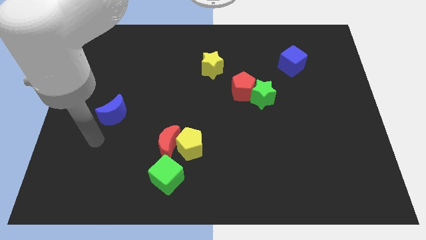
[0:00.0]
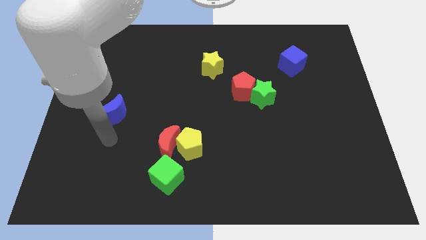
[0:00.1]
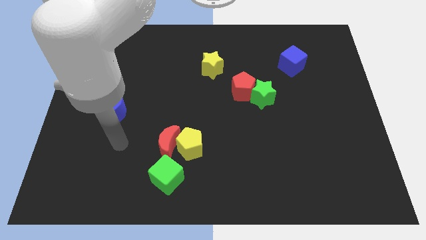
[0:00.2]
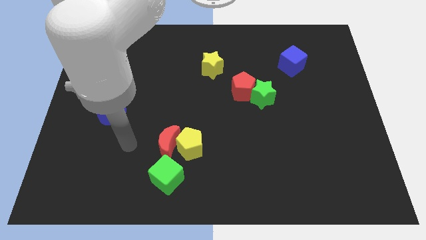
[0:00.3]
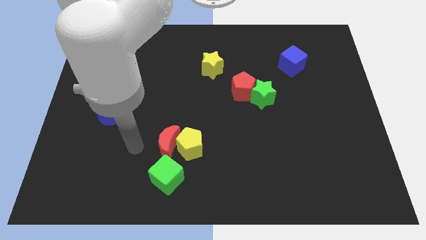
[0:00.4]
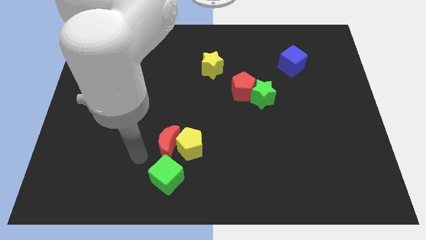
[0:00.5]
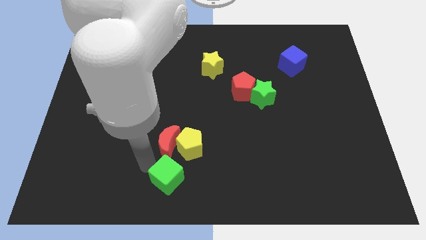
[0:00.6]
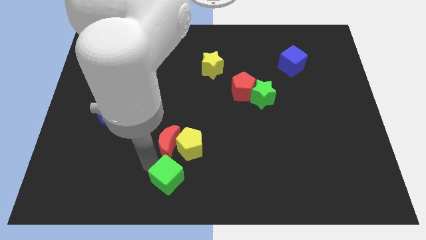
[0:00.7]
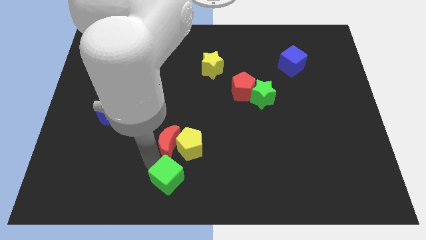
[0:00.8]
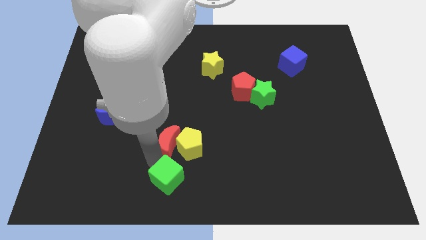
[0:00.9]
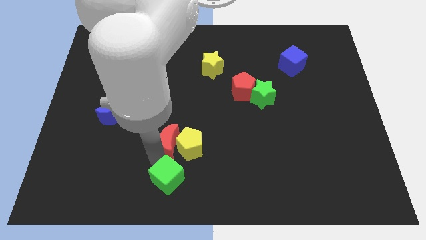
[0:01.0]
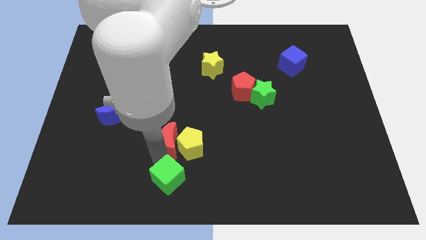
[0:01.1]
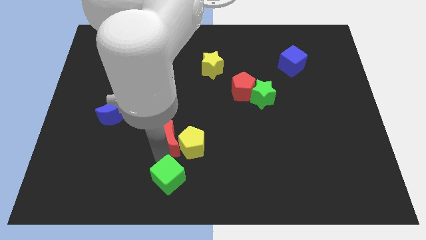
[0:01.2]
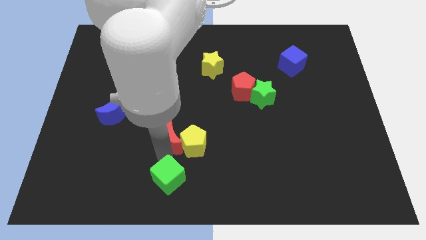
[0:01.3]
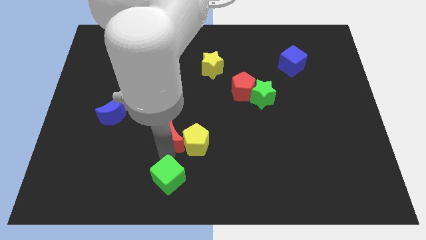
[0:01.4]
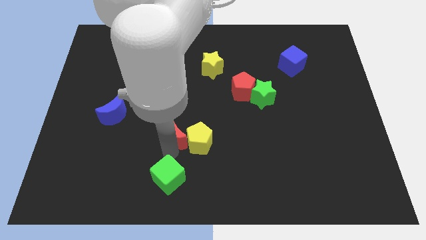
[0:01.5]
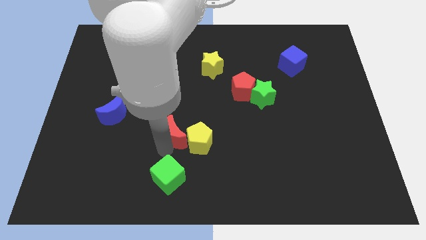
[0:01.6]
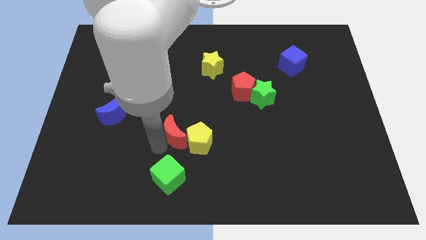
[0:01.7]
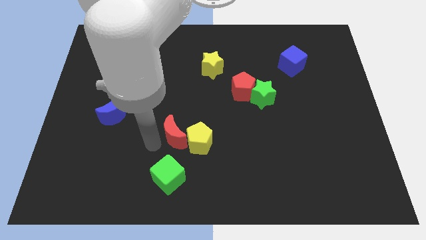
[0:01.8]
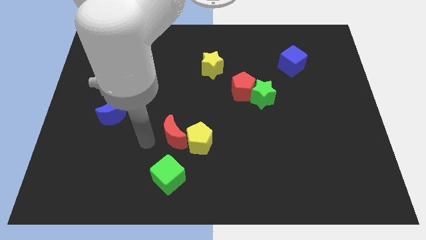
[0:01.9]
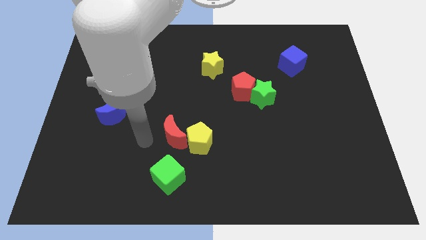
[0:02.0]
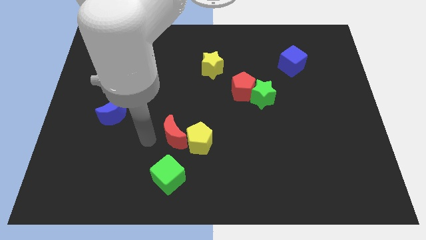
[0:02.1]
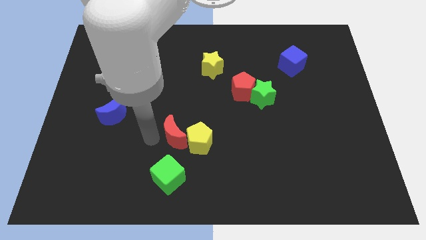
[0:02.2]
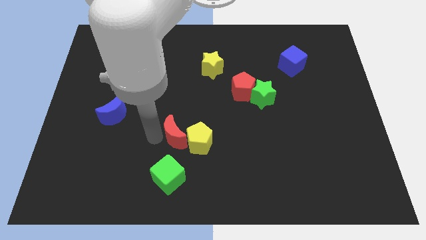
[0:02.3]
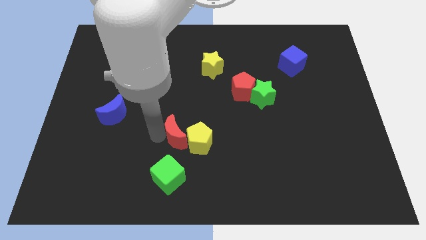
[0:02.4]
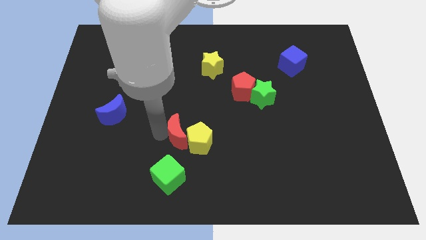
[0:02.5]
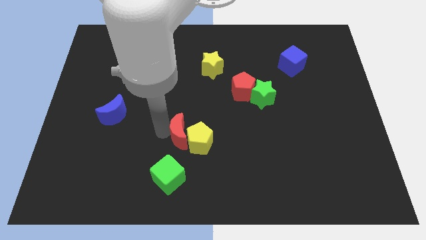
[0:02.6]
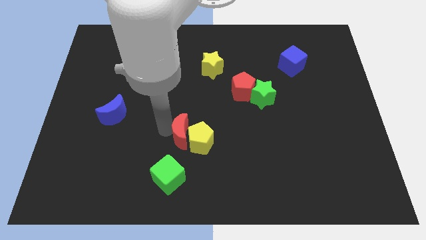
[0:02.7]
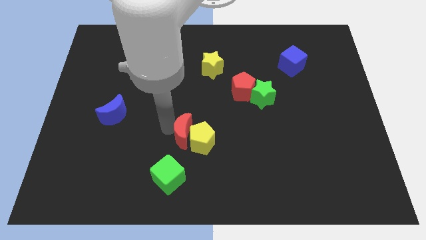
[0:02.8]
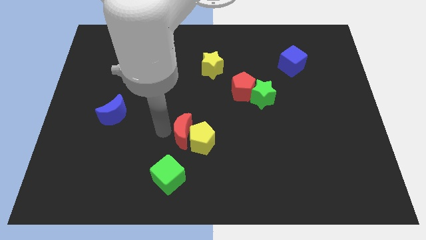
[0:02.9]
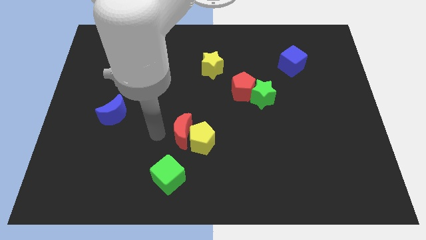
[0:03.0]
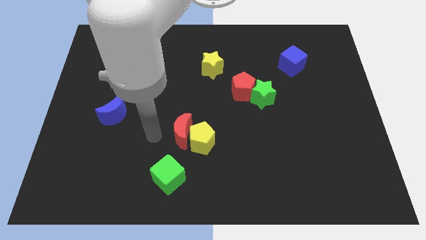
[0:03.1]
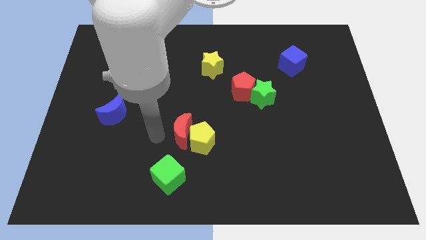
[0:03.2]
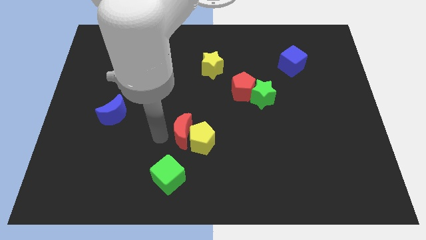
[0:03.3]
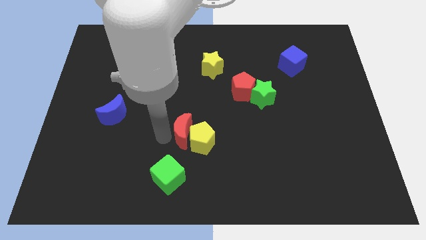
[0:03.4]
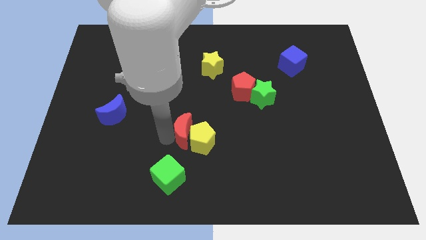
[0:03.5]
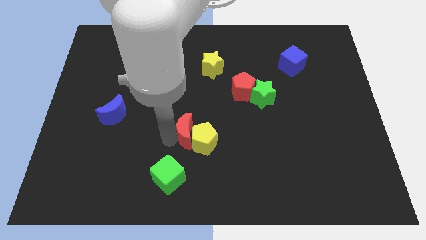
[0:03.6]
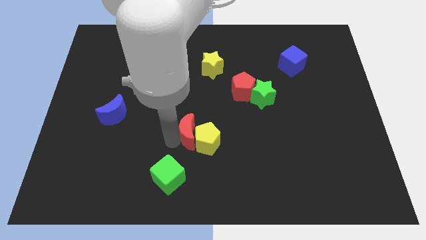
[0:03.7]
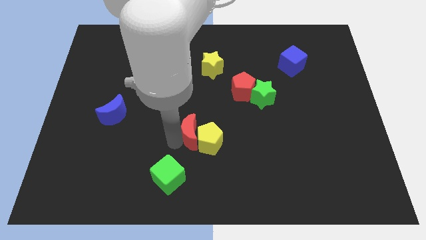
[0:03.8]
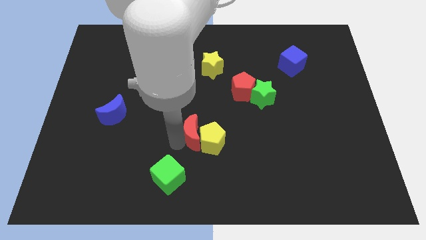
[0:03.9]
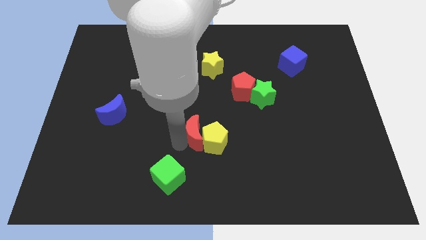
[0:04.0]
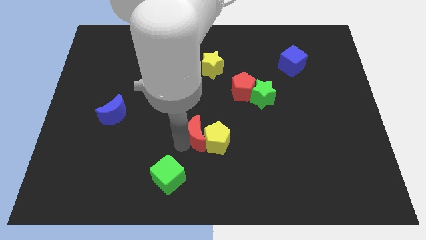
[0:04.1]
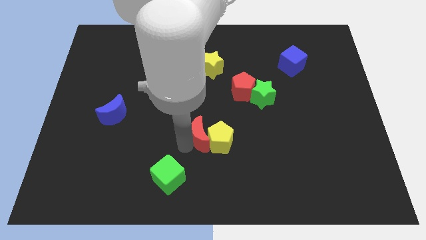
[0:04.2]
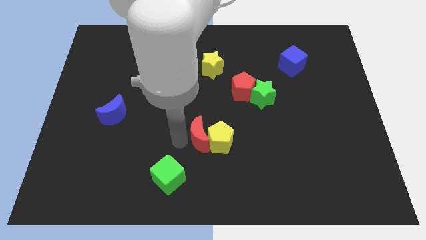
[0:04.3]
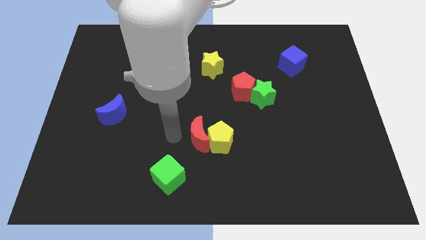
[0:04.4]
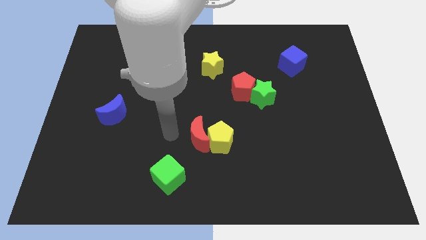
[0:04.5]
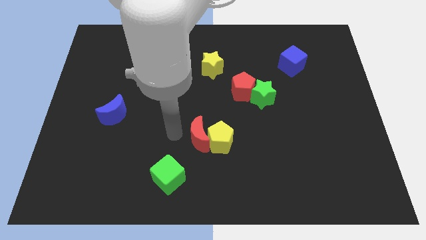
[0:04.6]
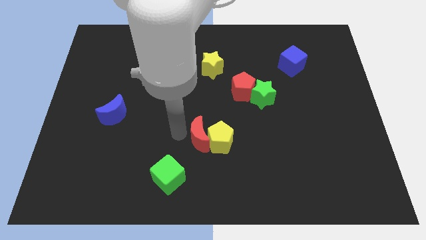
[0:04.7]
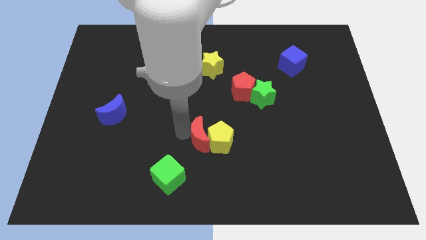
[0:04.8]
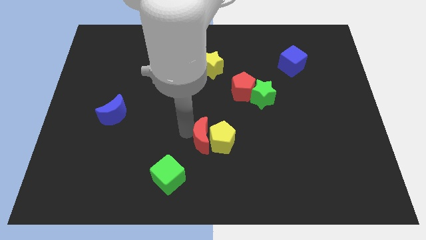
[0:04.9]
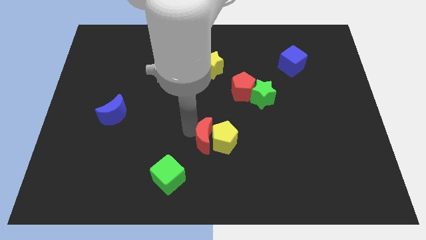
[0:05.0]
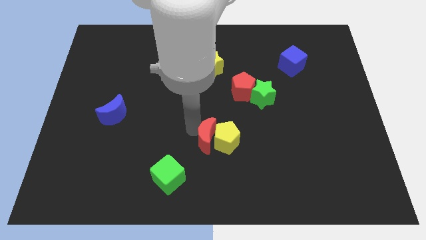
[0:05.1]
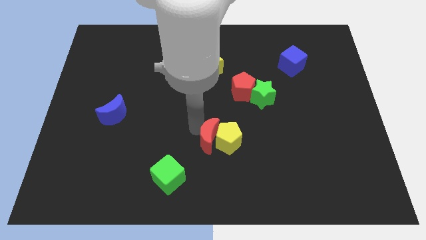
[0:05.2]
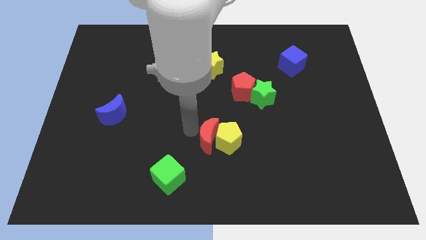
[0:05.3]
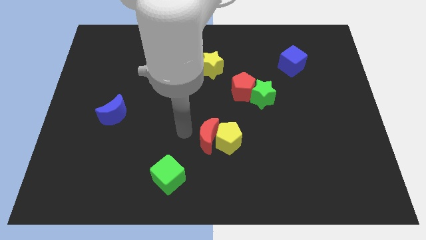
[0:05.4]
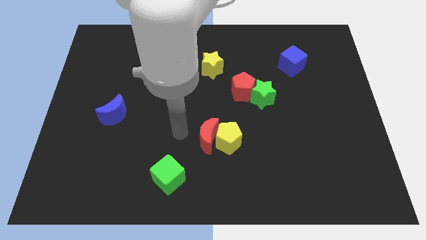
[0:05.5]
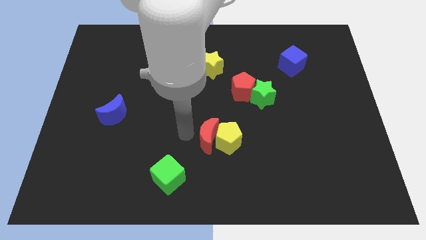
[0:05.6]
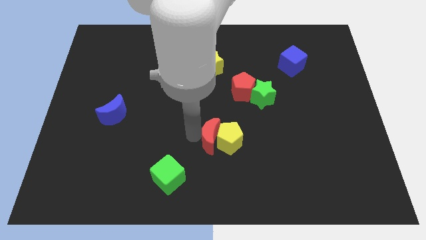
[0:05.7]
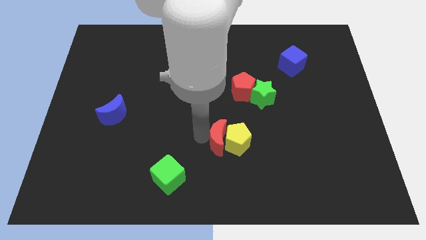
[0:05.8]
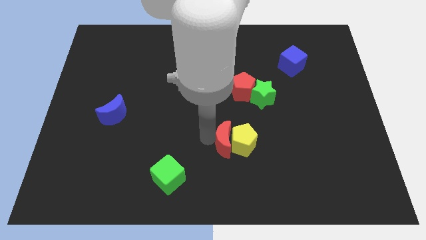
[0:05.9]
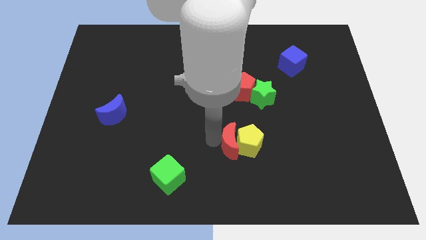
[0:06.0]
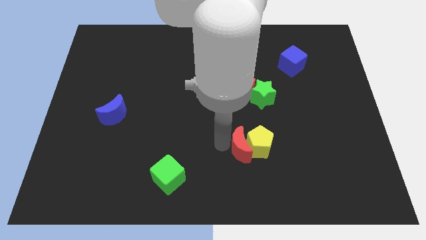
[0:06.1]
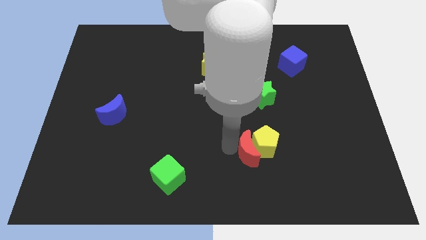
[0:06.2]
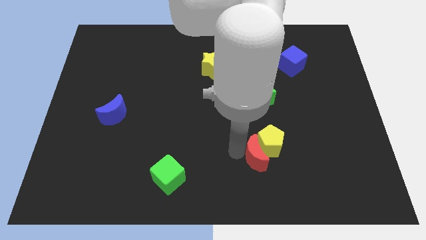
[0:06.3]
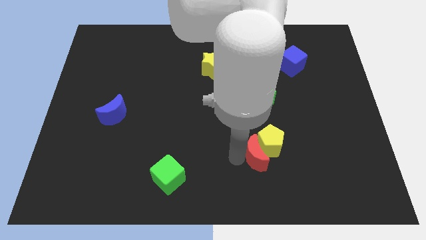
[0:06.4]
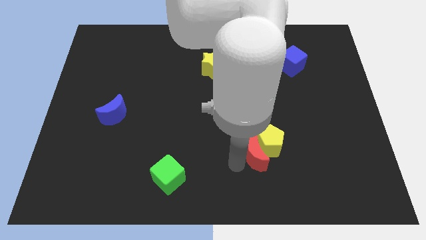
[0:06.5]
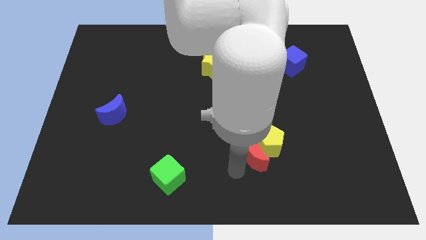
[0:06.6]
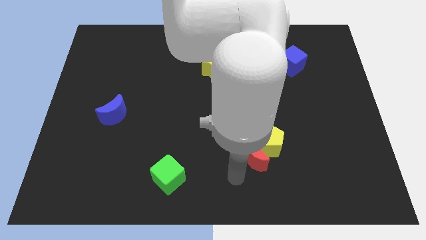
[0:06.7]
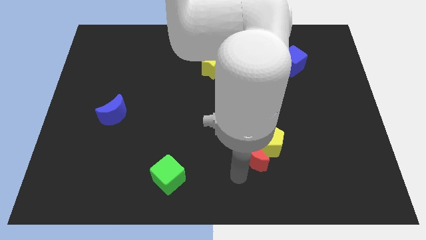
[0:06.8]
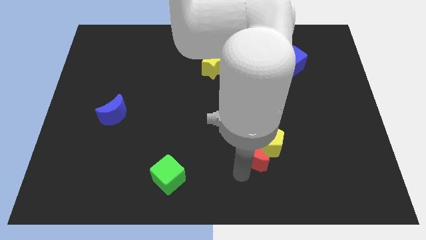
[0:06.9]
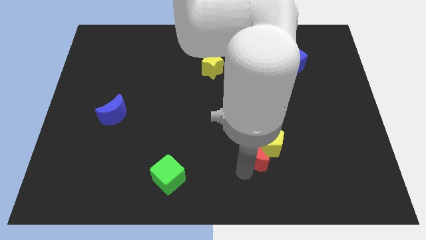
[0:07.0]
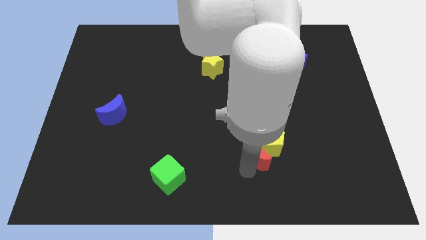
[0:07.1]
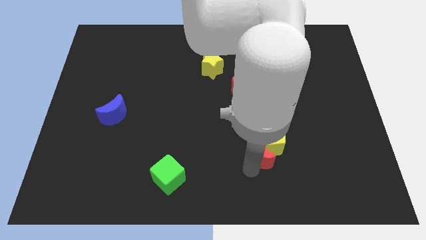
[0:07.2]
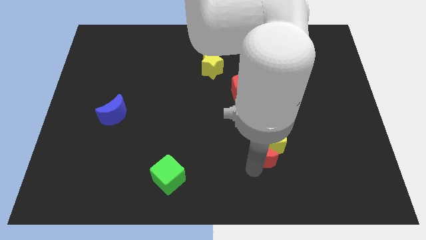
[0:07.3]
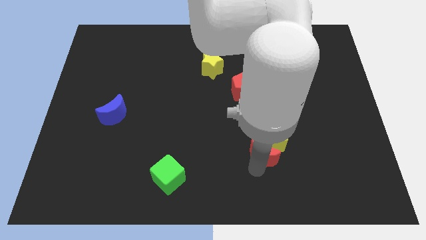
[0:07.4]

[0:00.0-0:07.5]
move the red moon right

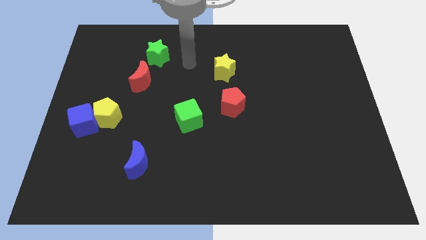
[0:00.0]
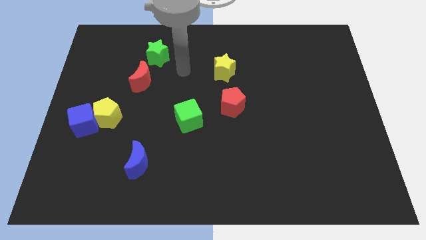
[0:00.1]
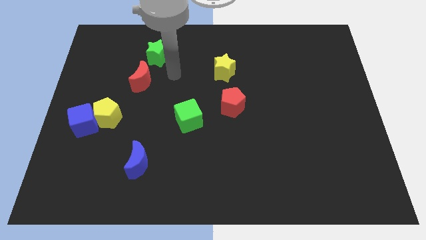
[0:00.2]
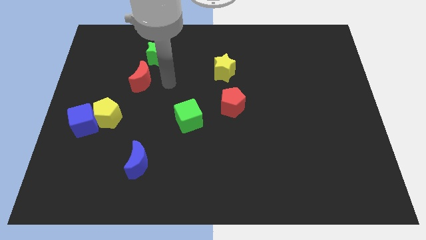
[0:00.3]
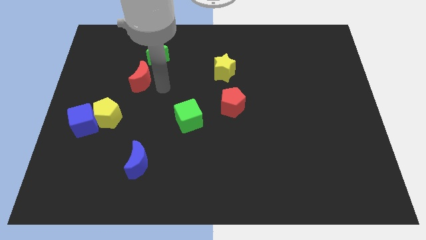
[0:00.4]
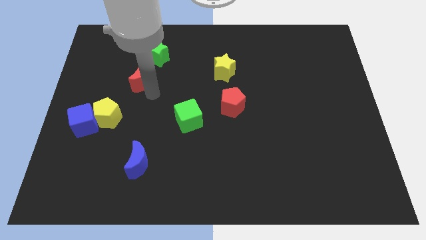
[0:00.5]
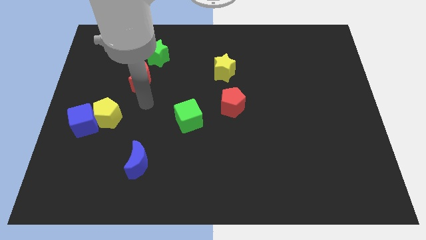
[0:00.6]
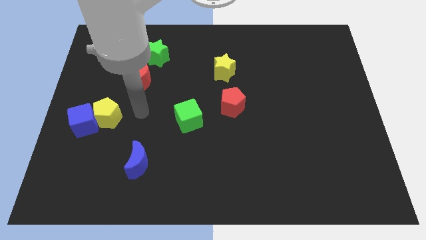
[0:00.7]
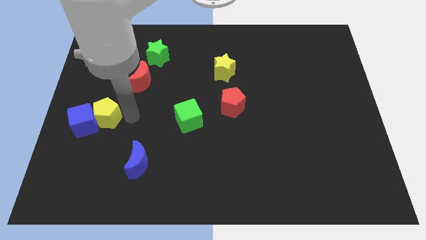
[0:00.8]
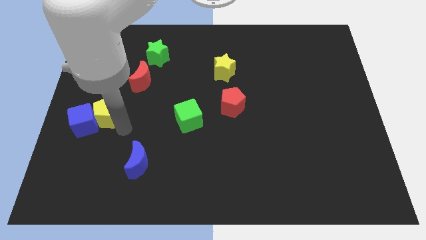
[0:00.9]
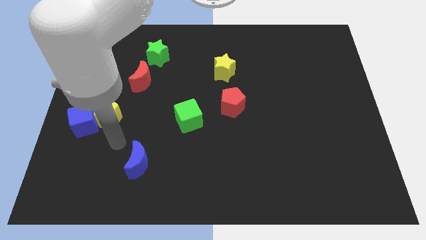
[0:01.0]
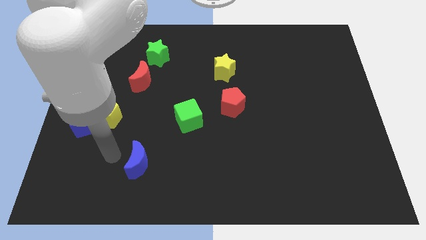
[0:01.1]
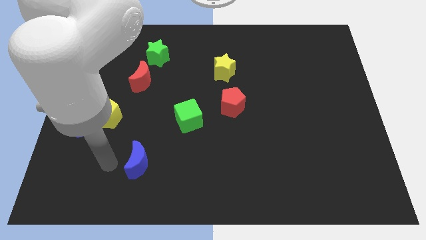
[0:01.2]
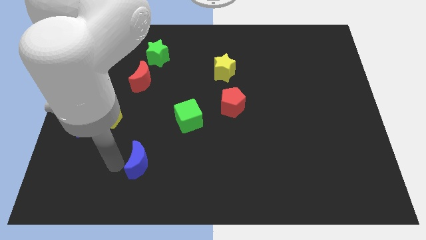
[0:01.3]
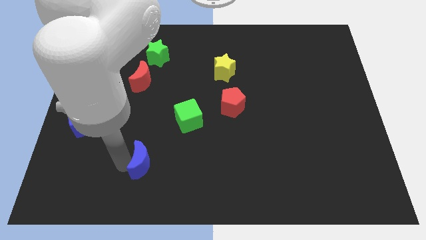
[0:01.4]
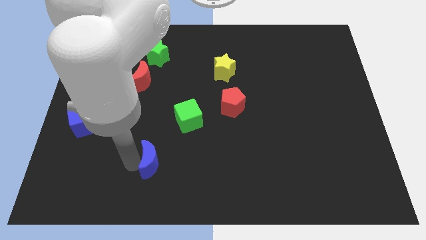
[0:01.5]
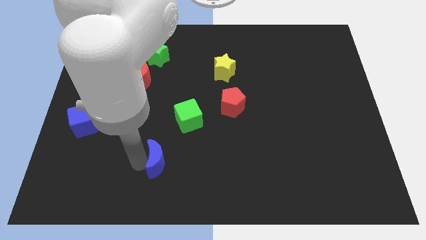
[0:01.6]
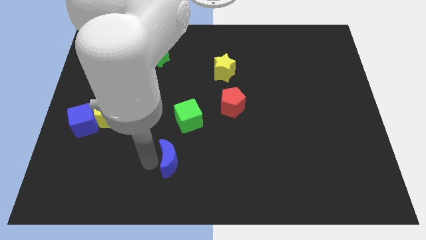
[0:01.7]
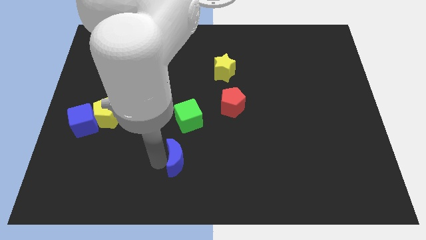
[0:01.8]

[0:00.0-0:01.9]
push the blue moon slightly right
